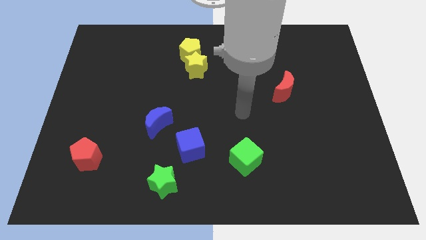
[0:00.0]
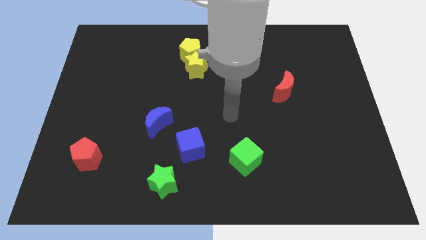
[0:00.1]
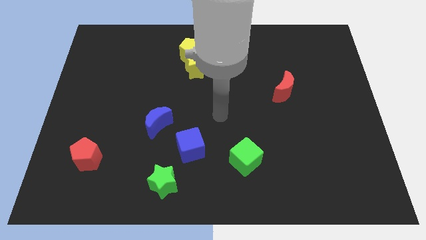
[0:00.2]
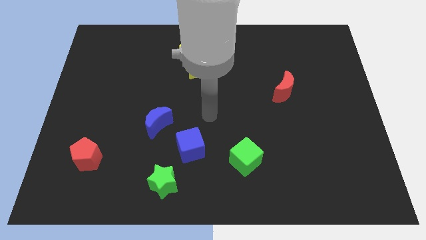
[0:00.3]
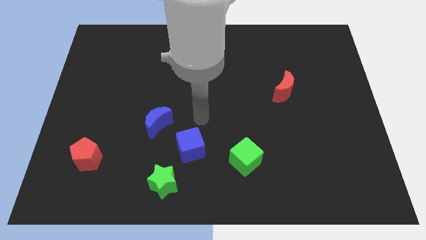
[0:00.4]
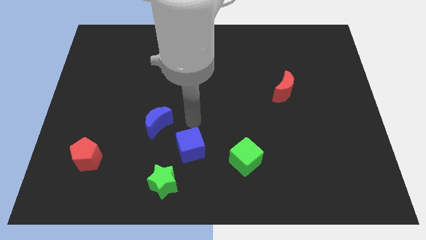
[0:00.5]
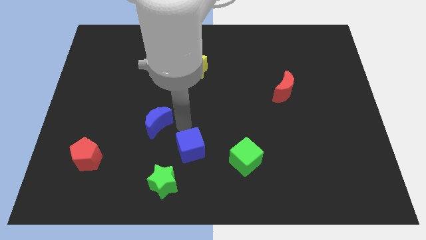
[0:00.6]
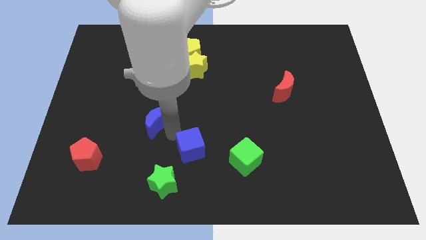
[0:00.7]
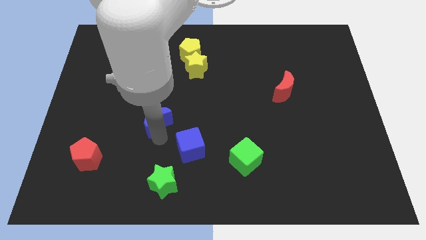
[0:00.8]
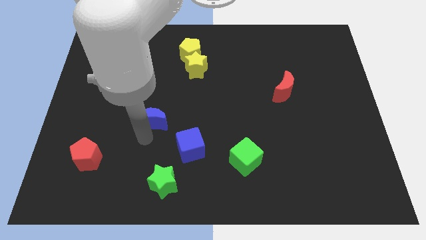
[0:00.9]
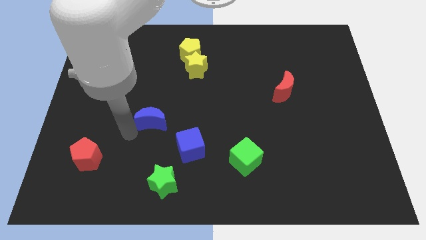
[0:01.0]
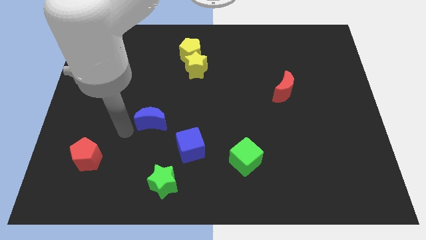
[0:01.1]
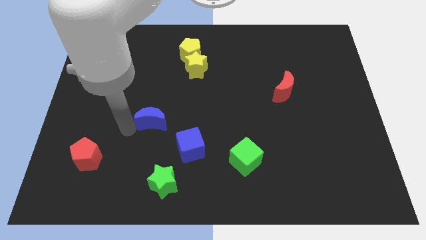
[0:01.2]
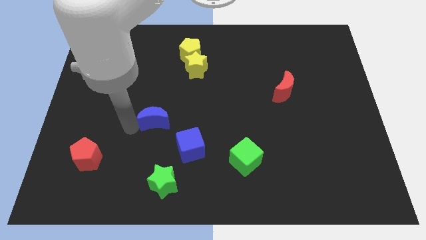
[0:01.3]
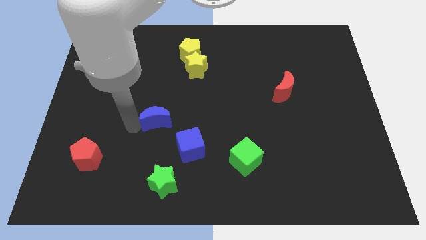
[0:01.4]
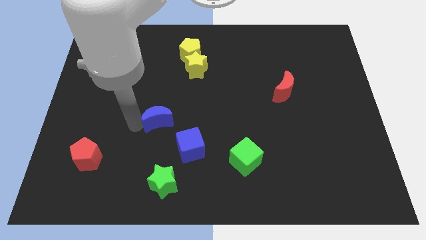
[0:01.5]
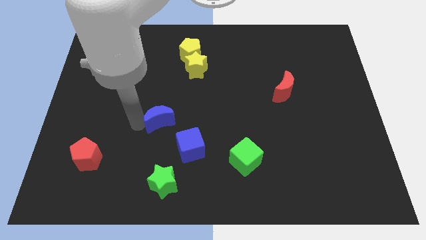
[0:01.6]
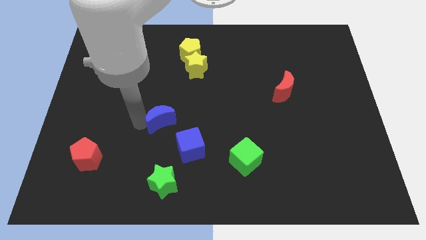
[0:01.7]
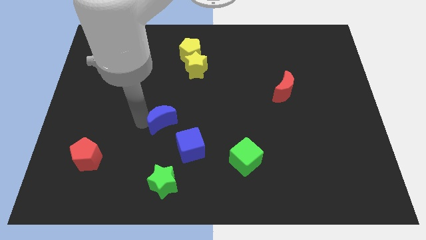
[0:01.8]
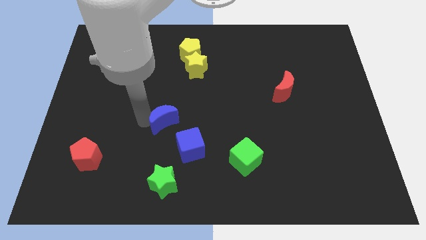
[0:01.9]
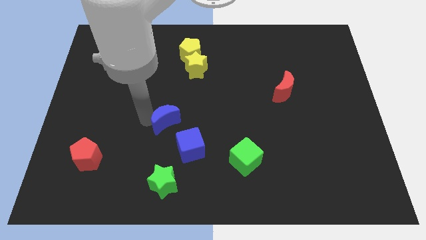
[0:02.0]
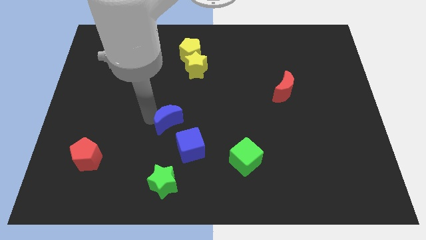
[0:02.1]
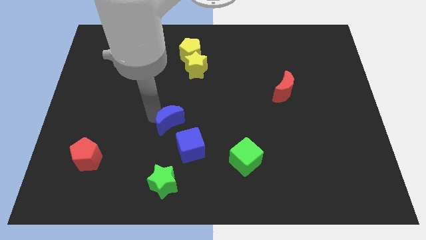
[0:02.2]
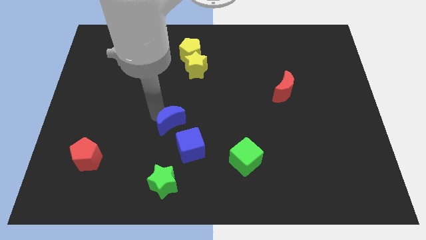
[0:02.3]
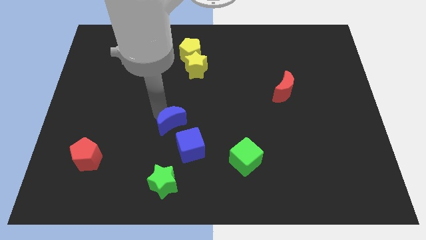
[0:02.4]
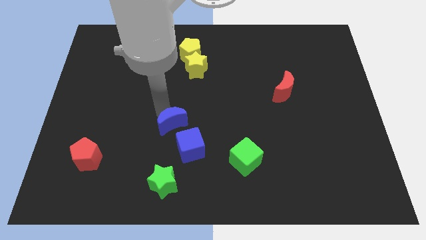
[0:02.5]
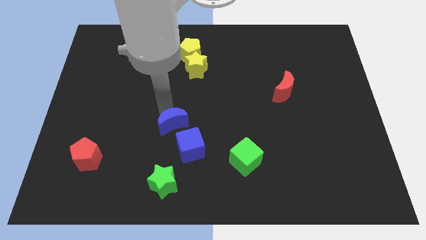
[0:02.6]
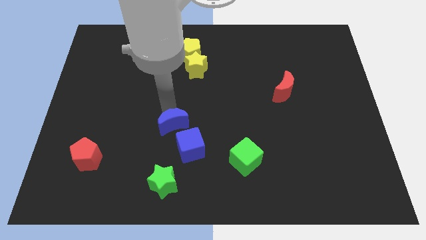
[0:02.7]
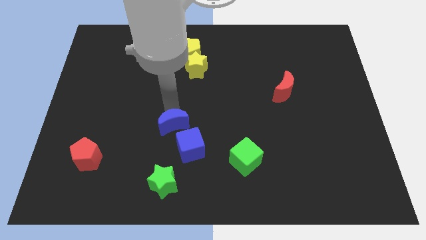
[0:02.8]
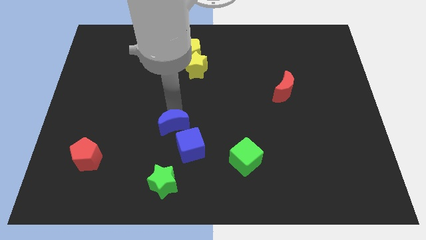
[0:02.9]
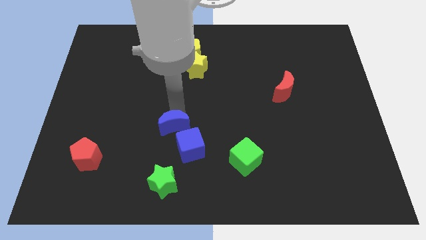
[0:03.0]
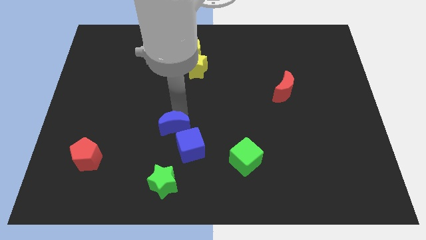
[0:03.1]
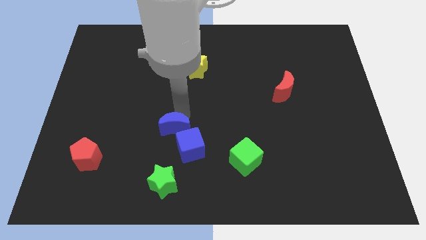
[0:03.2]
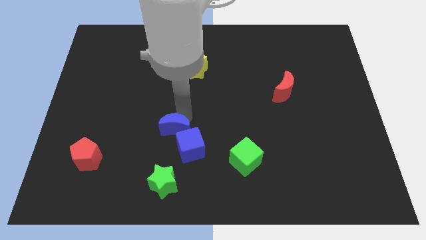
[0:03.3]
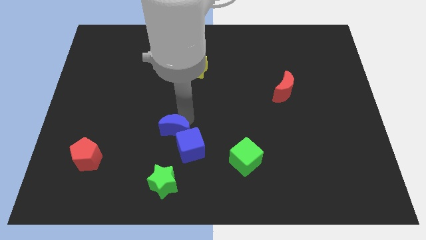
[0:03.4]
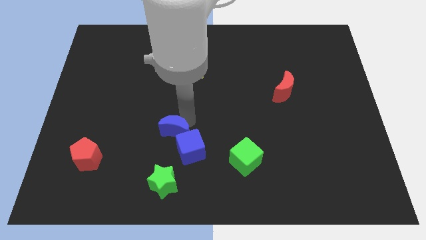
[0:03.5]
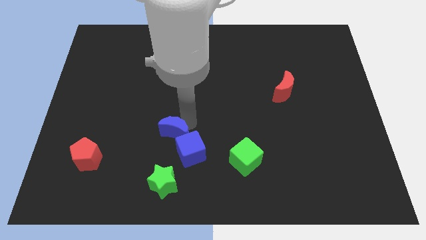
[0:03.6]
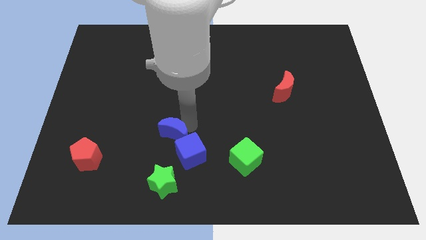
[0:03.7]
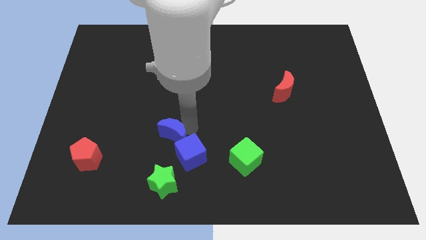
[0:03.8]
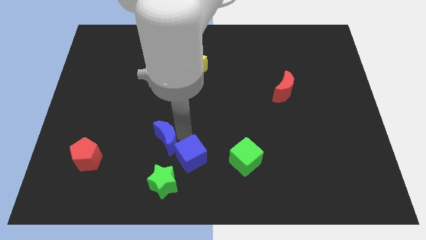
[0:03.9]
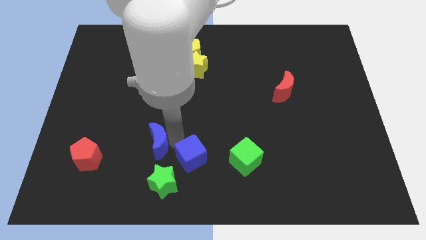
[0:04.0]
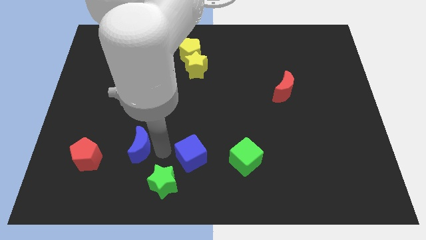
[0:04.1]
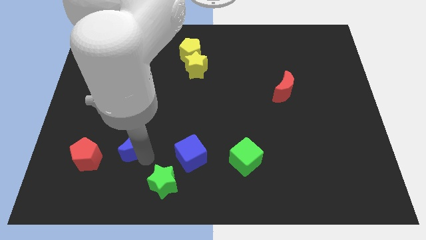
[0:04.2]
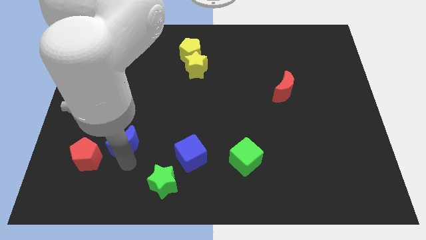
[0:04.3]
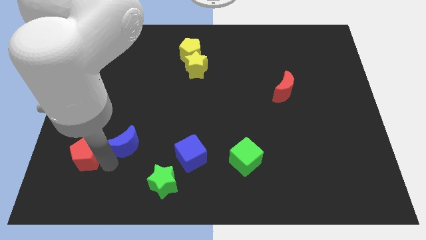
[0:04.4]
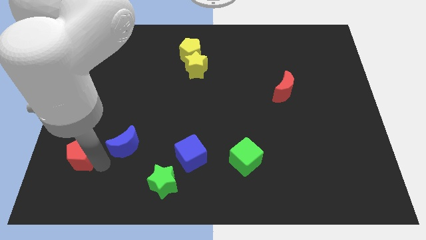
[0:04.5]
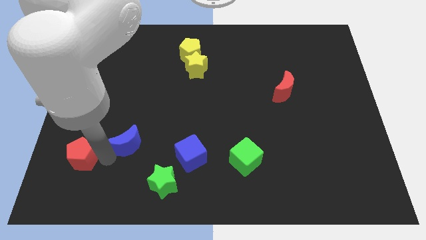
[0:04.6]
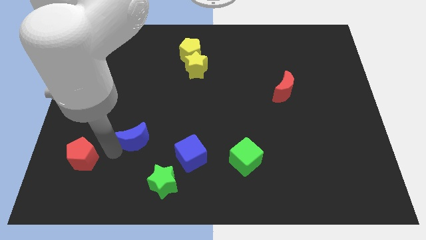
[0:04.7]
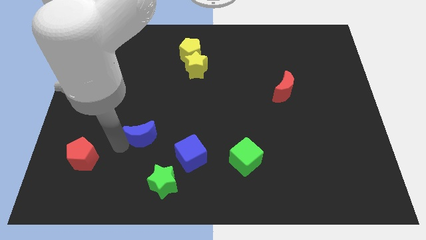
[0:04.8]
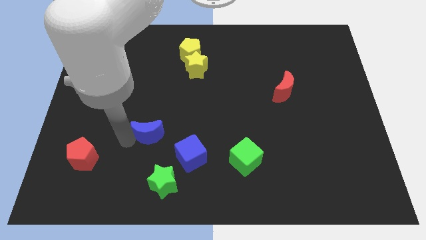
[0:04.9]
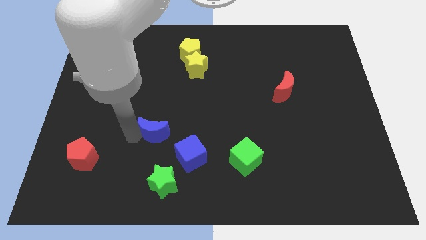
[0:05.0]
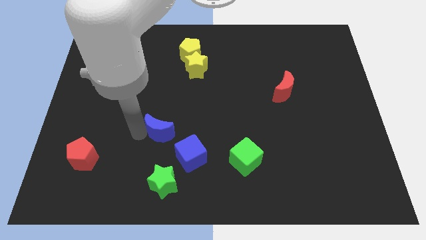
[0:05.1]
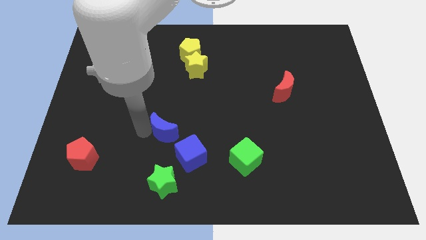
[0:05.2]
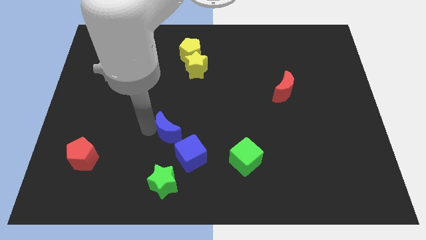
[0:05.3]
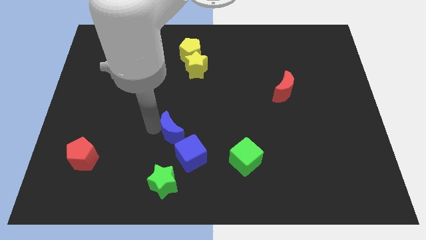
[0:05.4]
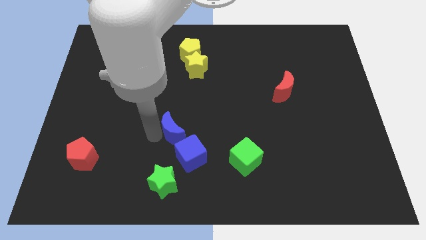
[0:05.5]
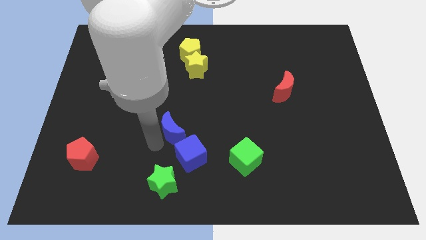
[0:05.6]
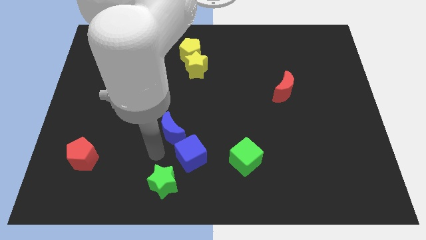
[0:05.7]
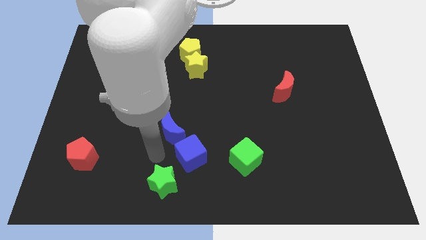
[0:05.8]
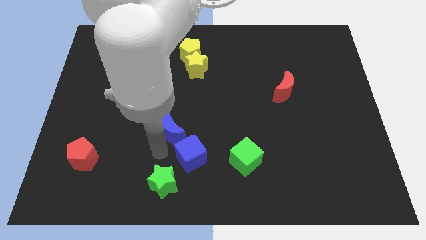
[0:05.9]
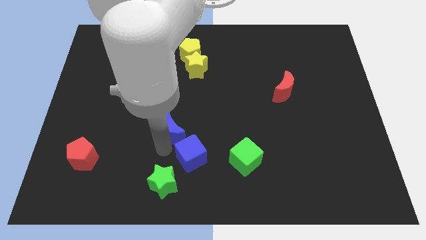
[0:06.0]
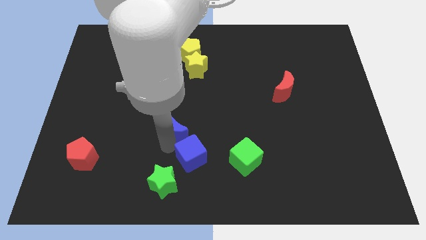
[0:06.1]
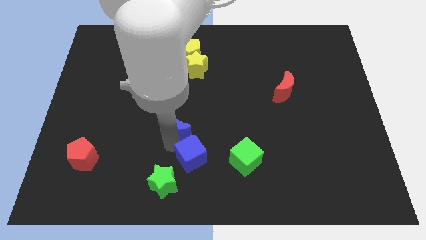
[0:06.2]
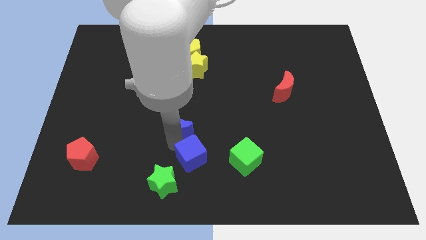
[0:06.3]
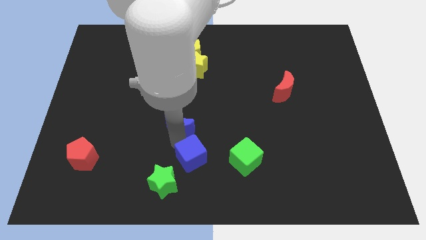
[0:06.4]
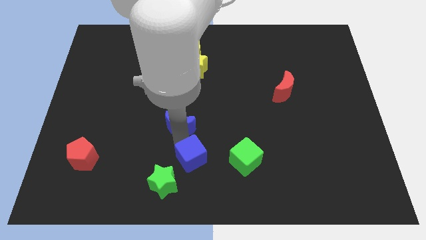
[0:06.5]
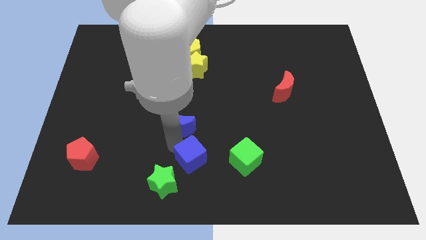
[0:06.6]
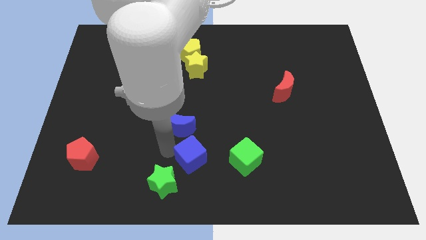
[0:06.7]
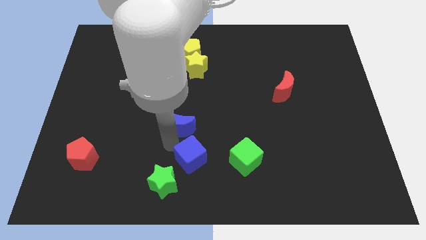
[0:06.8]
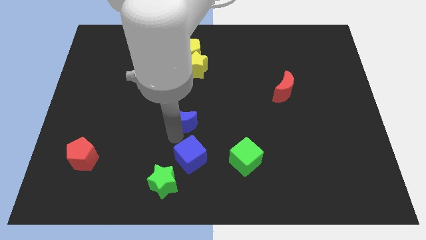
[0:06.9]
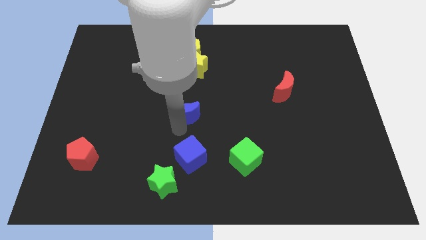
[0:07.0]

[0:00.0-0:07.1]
slide the blue moon to the bottom of the yellow star
